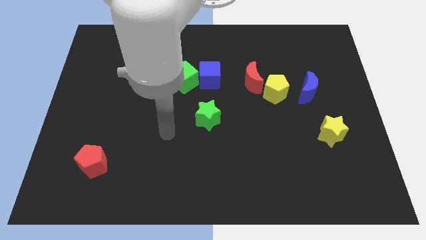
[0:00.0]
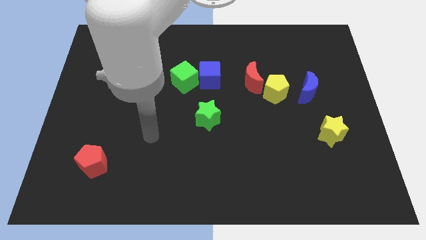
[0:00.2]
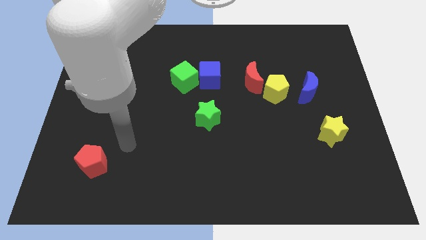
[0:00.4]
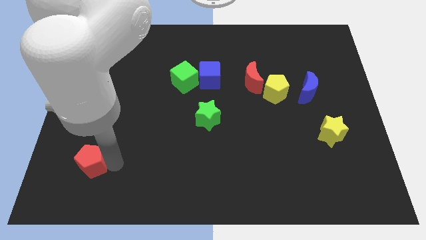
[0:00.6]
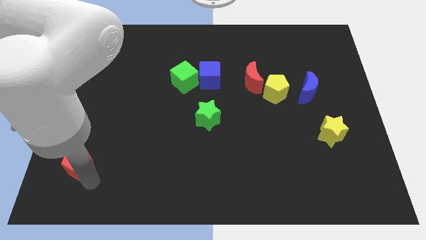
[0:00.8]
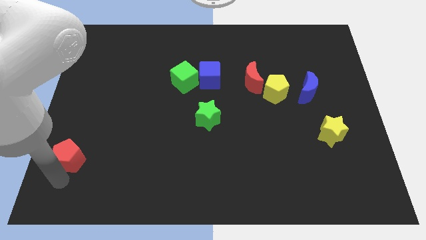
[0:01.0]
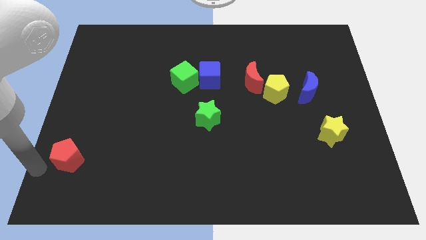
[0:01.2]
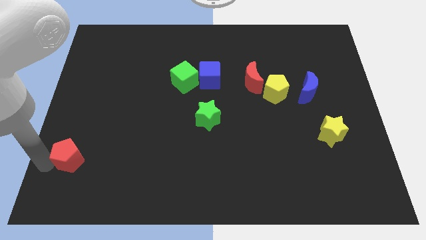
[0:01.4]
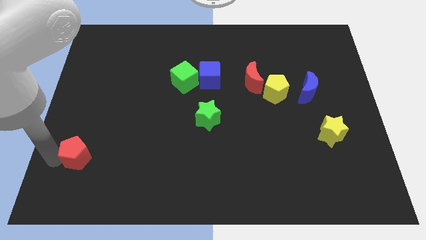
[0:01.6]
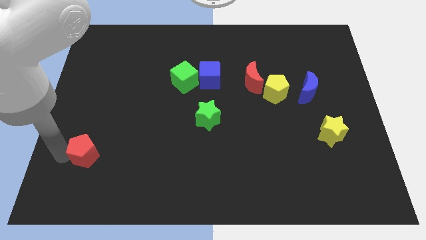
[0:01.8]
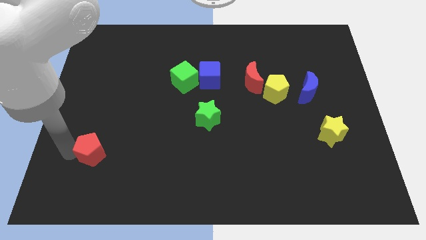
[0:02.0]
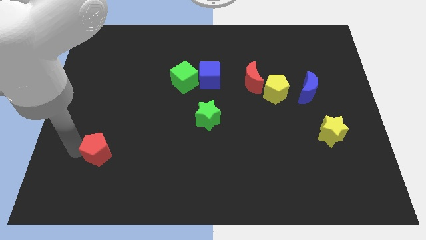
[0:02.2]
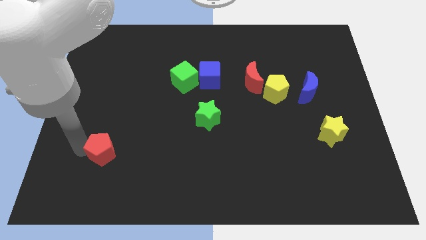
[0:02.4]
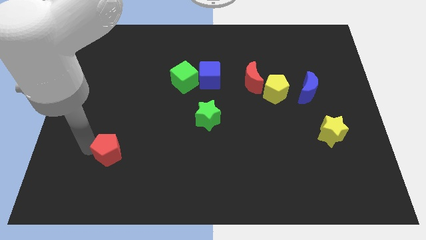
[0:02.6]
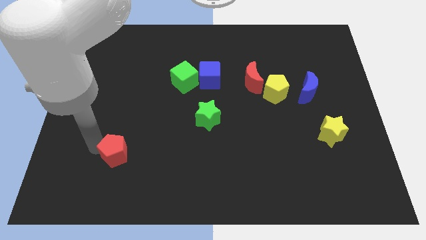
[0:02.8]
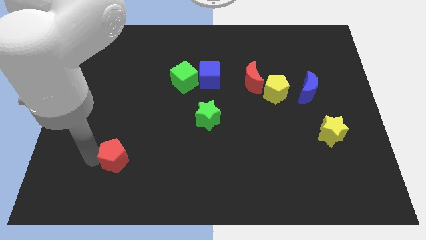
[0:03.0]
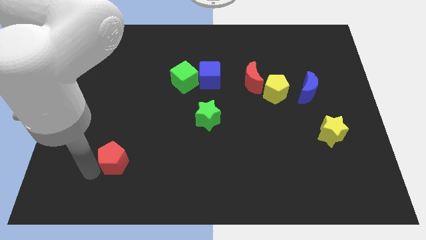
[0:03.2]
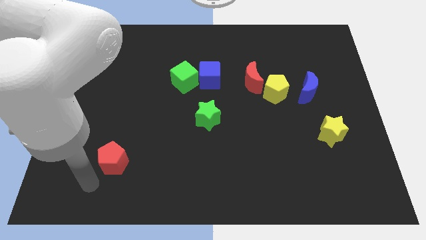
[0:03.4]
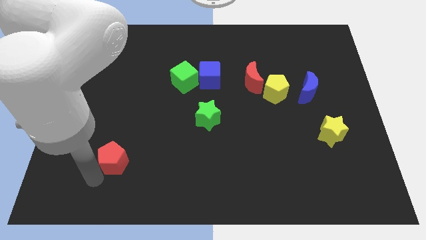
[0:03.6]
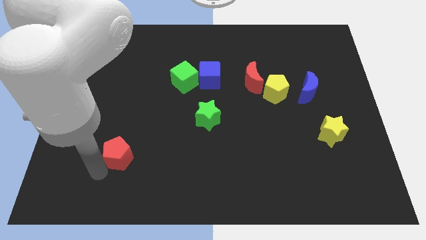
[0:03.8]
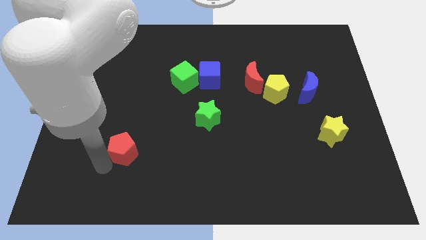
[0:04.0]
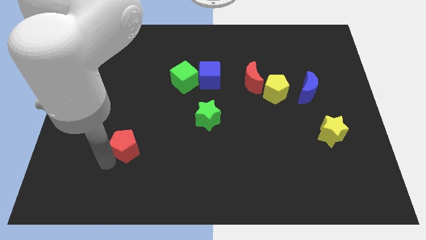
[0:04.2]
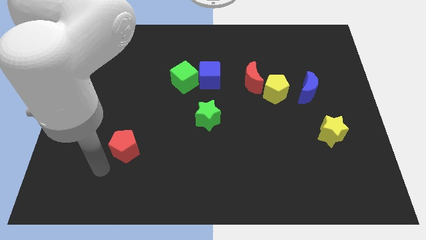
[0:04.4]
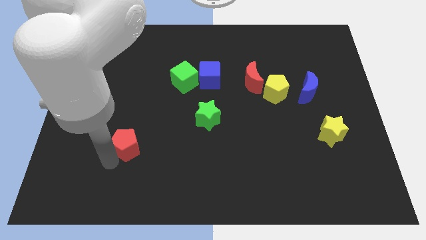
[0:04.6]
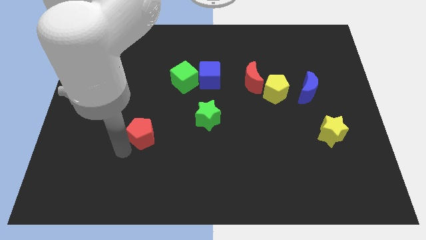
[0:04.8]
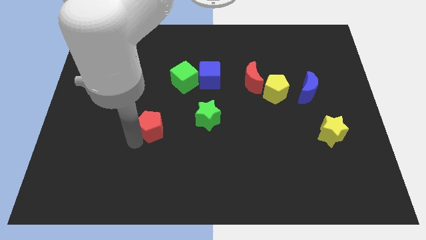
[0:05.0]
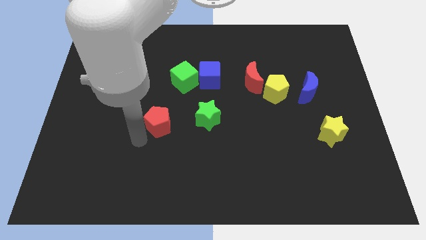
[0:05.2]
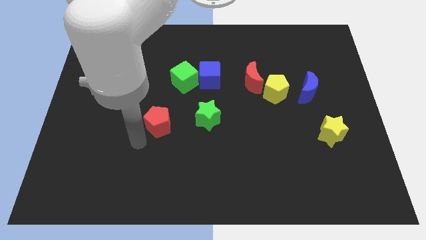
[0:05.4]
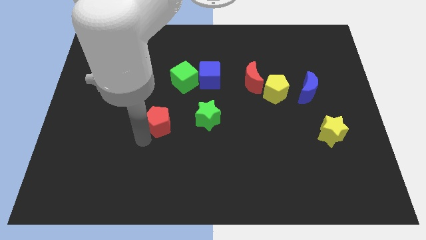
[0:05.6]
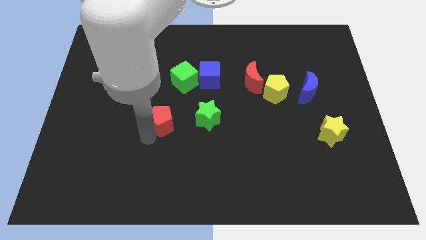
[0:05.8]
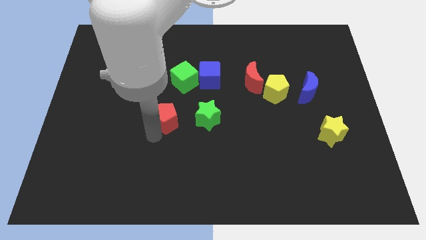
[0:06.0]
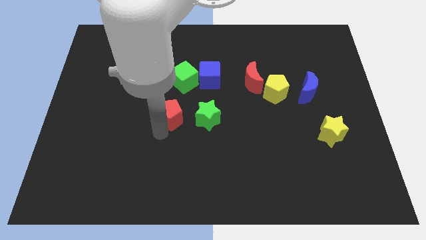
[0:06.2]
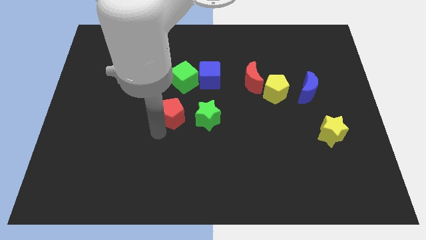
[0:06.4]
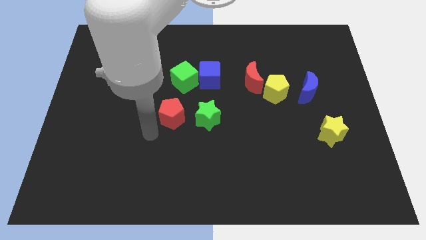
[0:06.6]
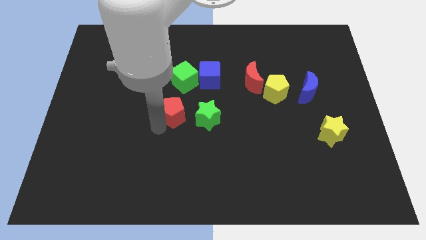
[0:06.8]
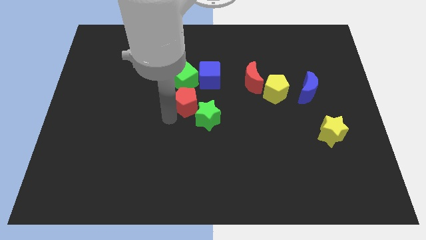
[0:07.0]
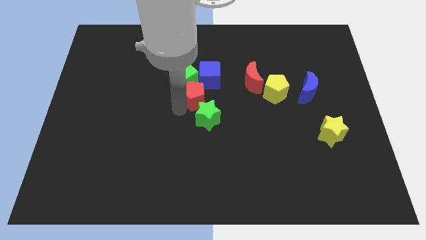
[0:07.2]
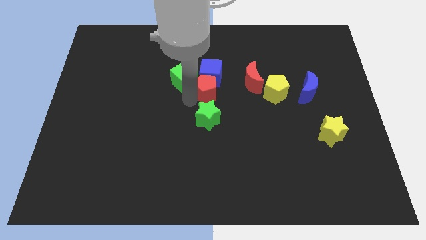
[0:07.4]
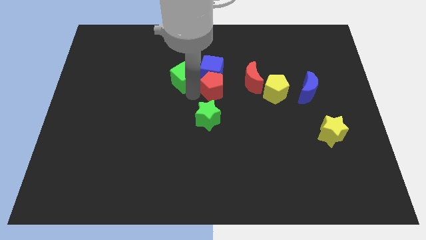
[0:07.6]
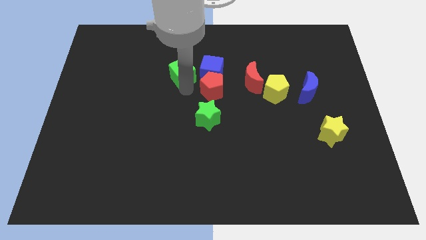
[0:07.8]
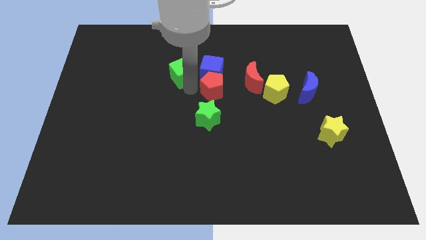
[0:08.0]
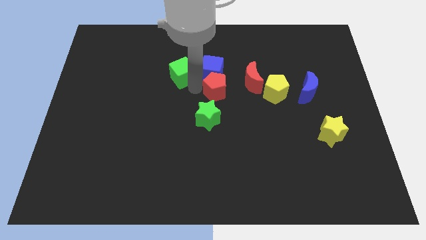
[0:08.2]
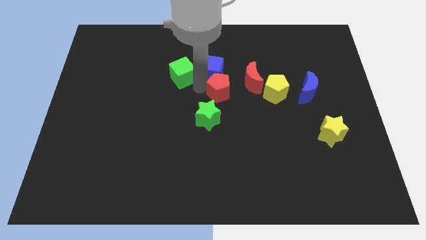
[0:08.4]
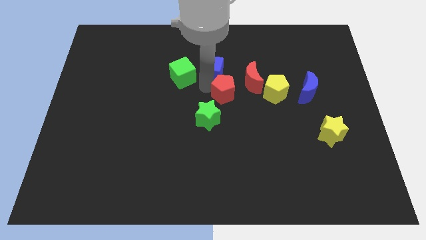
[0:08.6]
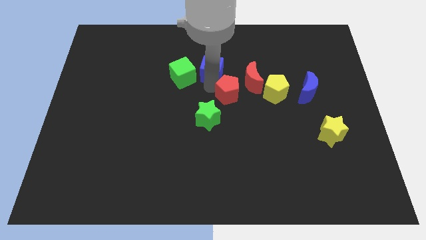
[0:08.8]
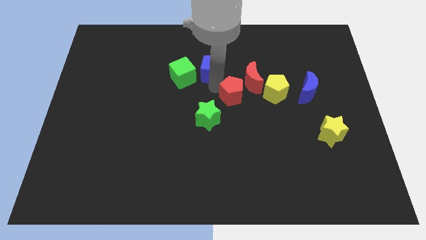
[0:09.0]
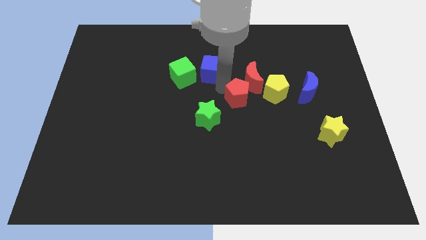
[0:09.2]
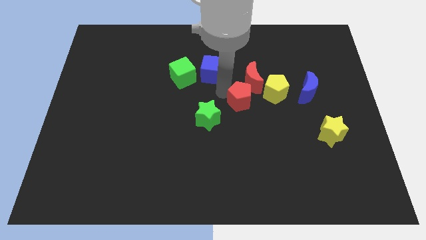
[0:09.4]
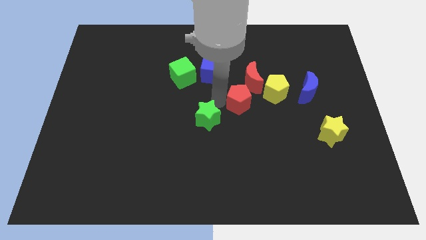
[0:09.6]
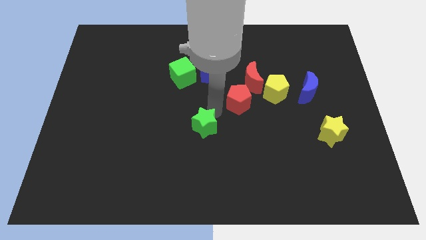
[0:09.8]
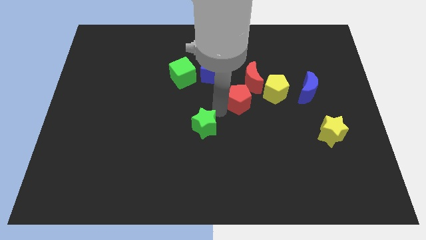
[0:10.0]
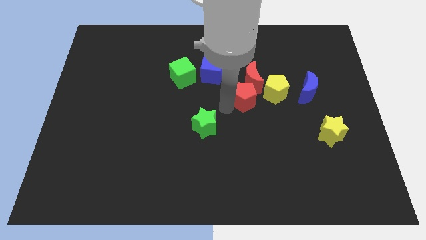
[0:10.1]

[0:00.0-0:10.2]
slide the red pentagon to the left of the blue moon

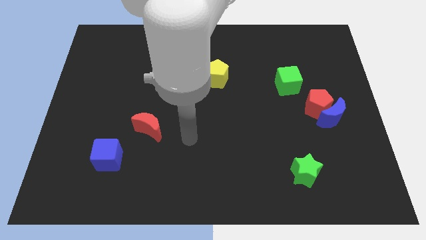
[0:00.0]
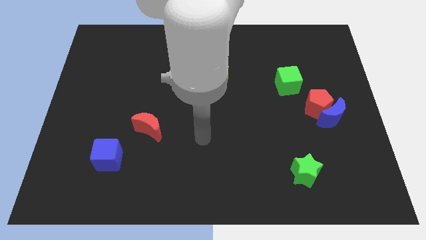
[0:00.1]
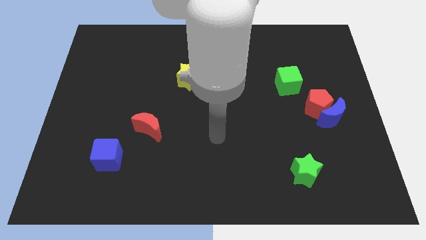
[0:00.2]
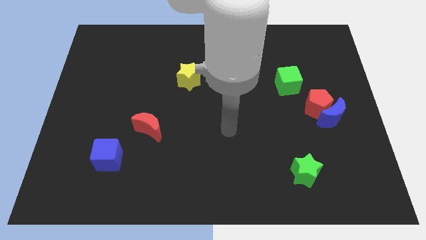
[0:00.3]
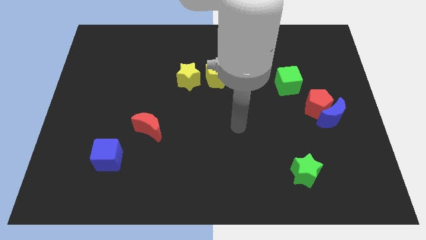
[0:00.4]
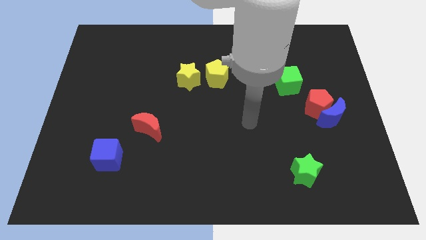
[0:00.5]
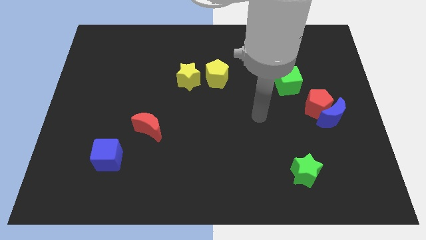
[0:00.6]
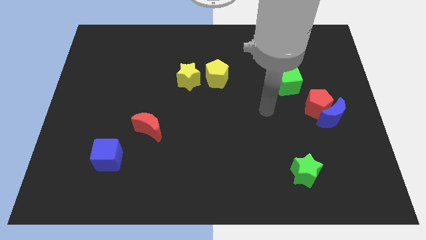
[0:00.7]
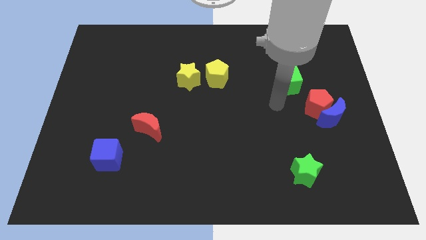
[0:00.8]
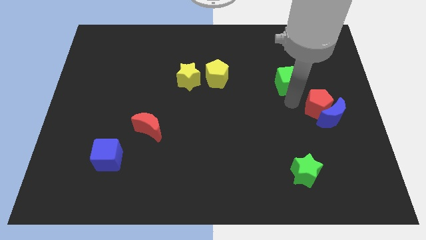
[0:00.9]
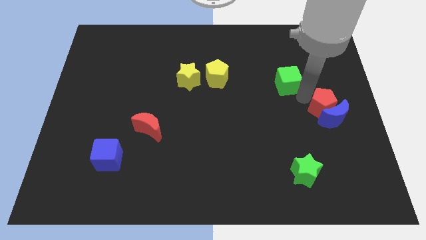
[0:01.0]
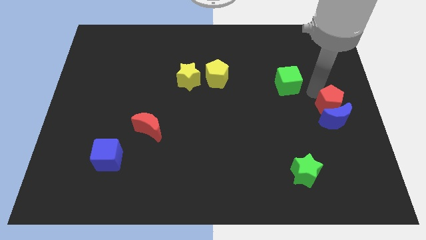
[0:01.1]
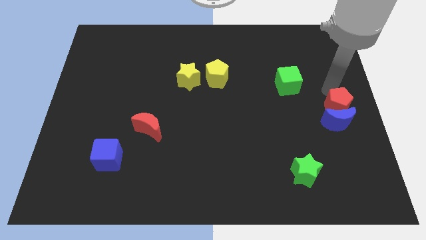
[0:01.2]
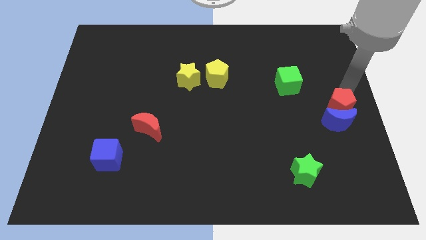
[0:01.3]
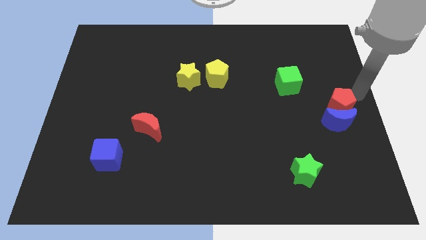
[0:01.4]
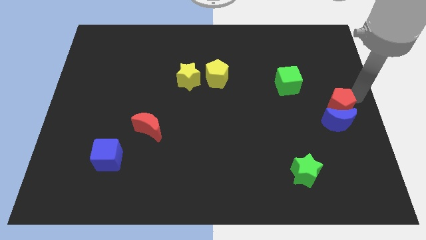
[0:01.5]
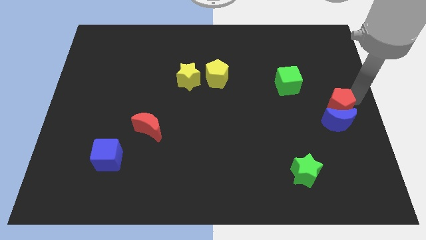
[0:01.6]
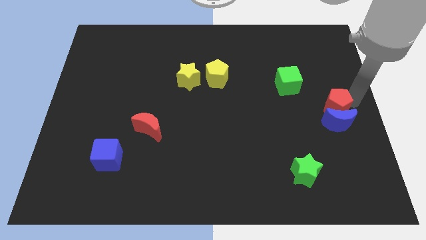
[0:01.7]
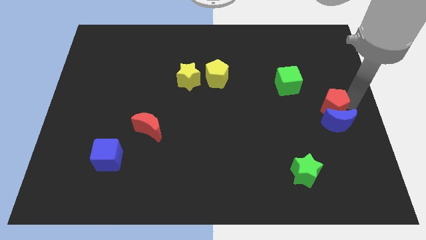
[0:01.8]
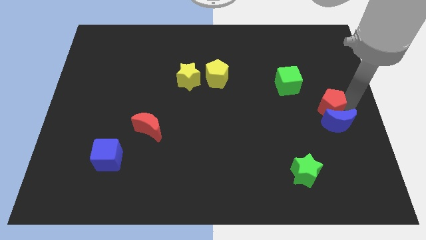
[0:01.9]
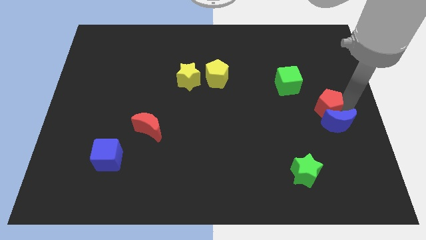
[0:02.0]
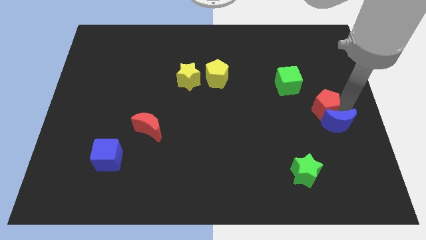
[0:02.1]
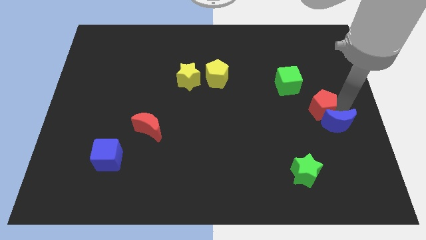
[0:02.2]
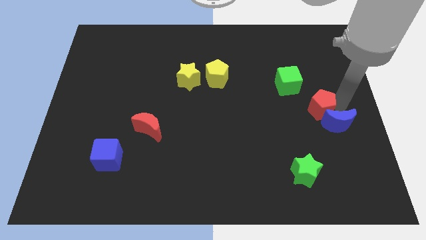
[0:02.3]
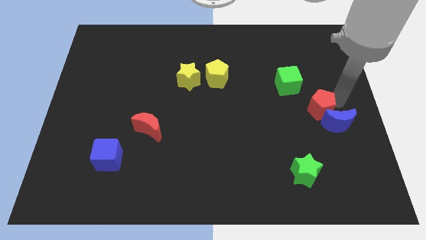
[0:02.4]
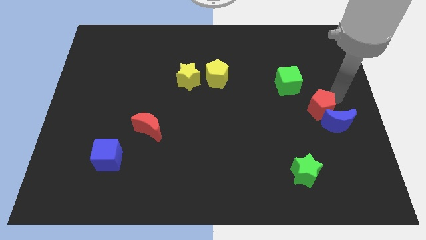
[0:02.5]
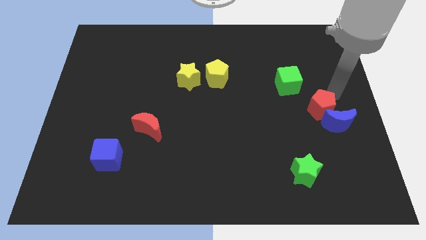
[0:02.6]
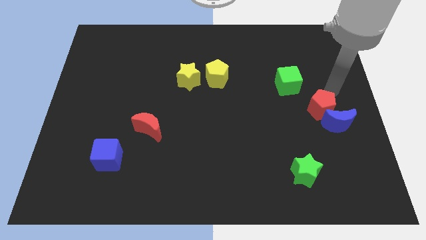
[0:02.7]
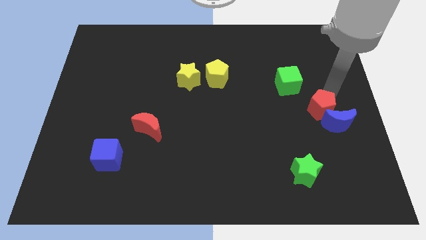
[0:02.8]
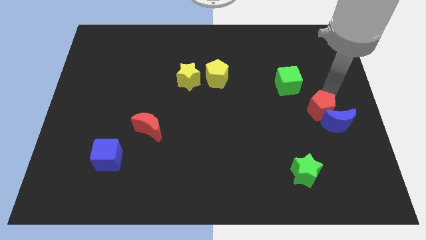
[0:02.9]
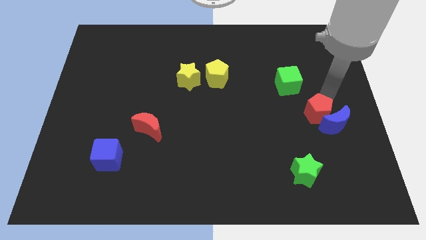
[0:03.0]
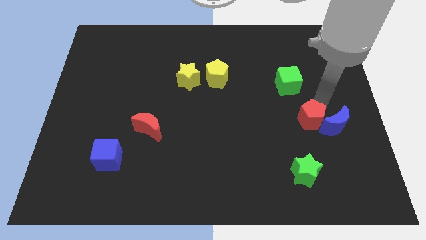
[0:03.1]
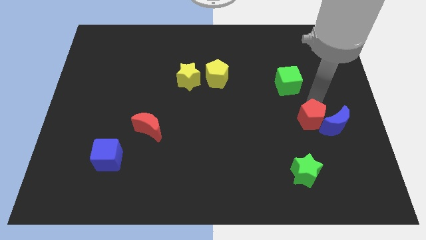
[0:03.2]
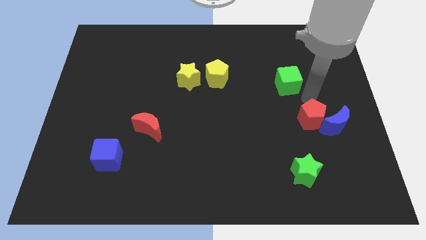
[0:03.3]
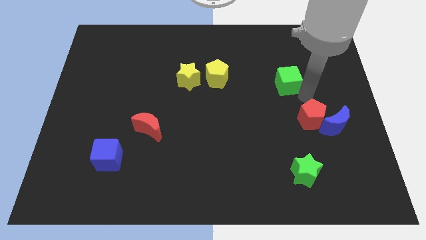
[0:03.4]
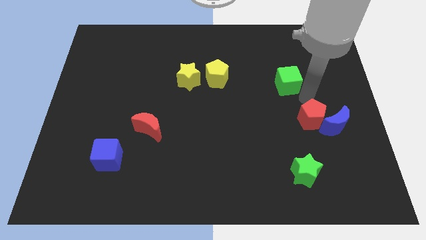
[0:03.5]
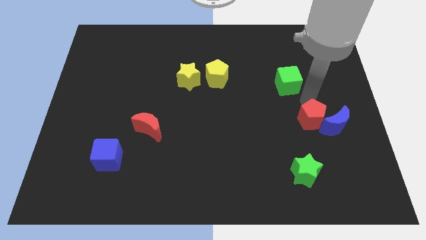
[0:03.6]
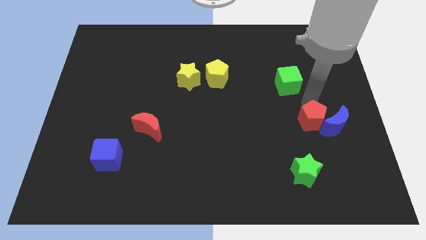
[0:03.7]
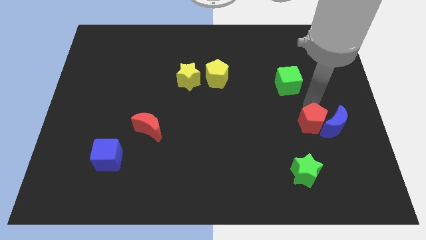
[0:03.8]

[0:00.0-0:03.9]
move the red pentagon diagonally down and to the left of the blue moon
